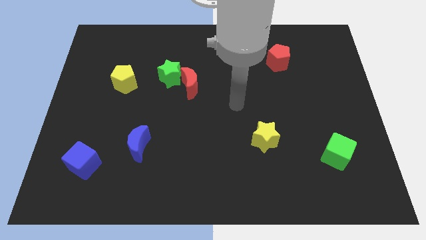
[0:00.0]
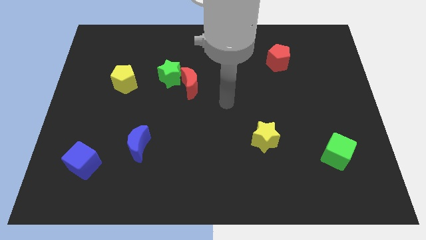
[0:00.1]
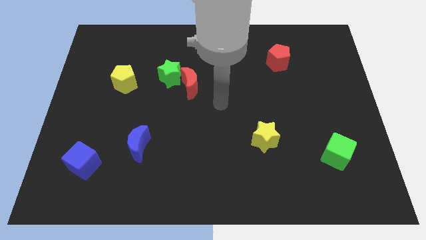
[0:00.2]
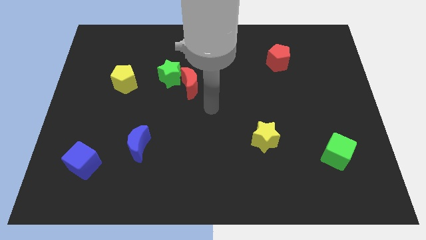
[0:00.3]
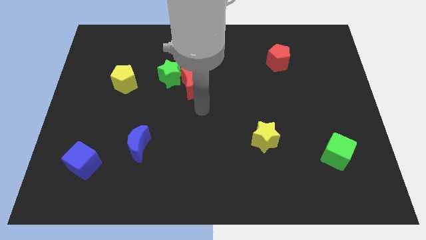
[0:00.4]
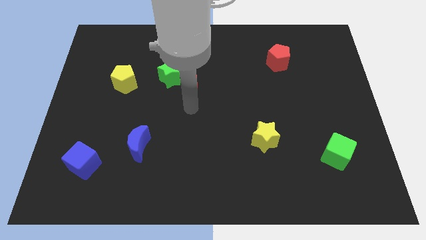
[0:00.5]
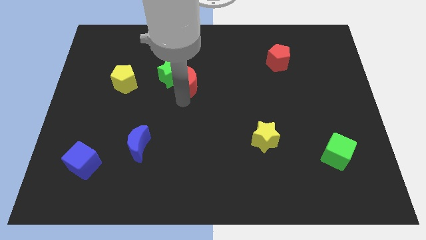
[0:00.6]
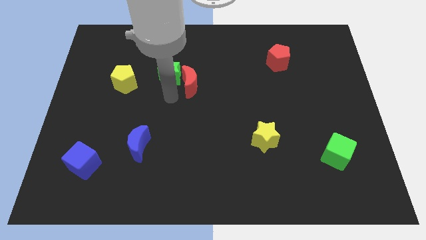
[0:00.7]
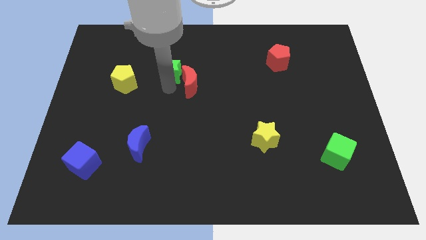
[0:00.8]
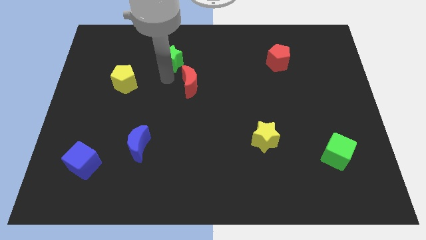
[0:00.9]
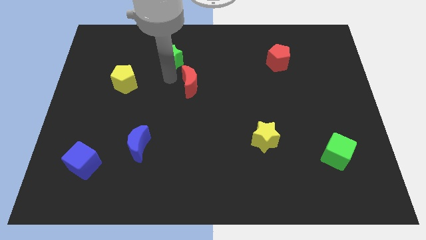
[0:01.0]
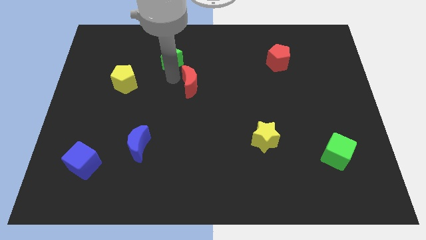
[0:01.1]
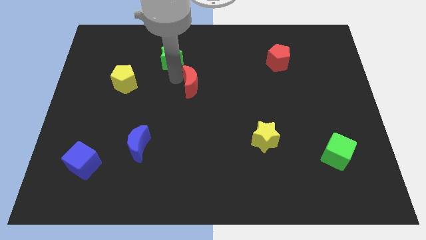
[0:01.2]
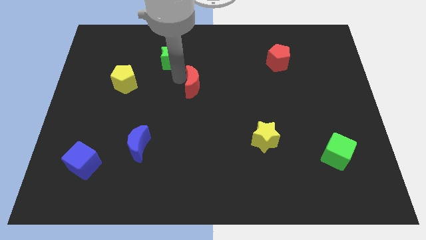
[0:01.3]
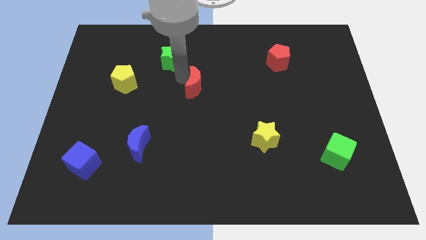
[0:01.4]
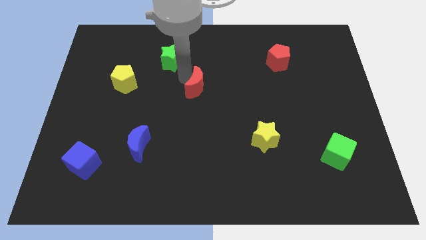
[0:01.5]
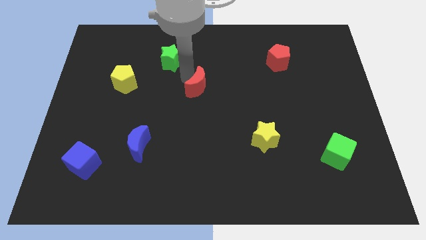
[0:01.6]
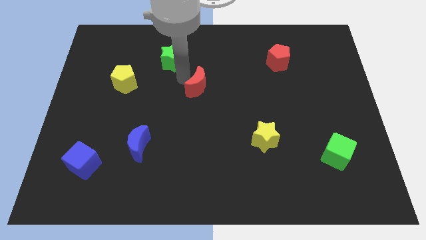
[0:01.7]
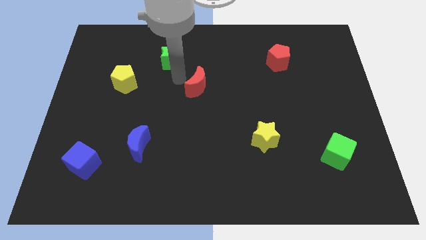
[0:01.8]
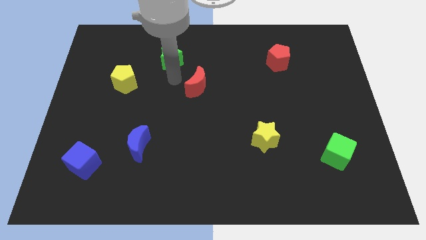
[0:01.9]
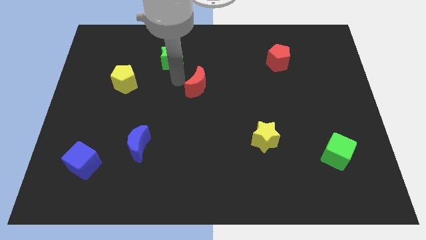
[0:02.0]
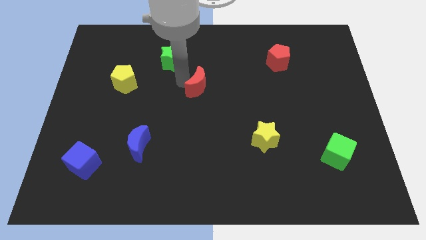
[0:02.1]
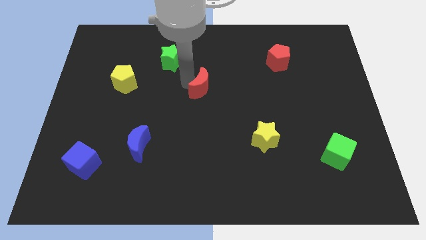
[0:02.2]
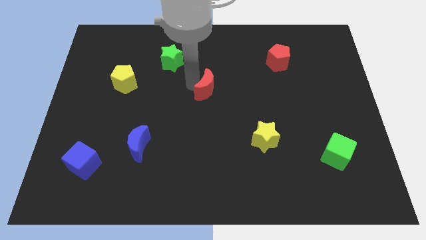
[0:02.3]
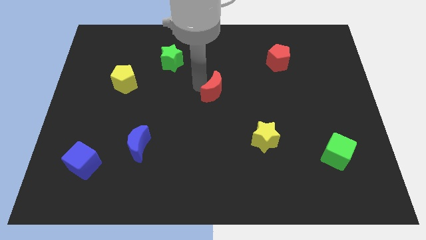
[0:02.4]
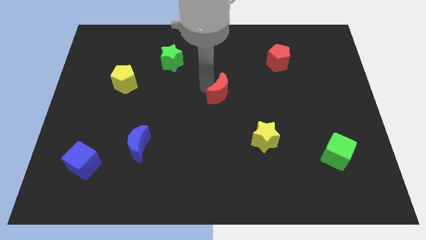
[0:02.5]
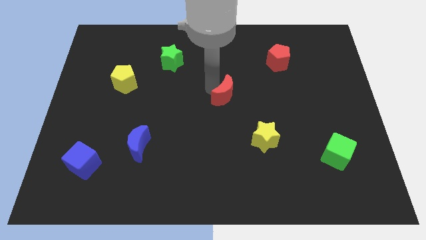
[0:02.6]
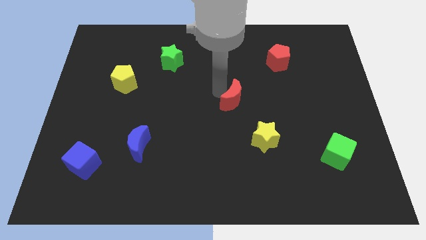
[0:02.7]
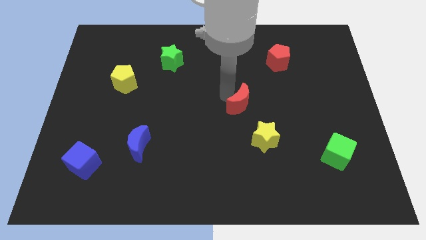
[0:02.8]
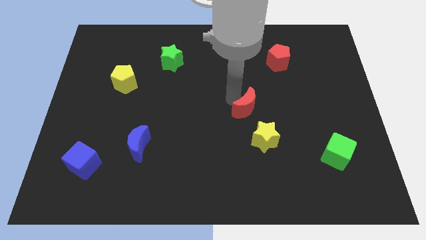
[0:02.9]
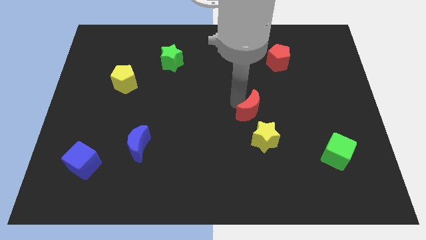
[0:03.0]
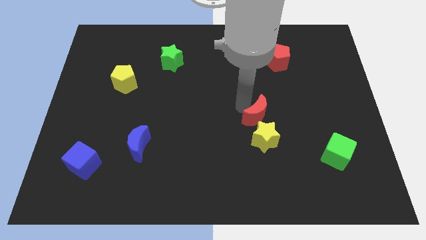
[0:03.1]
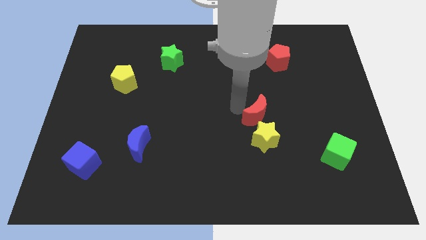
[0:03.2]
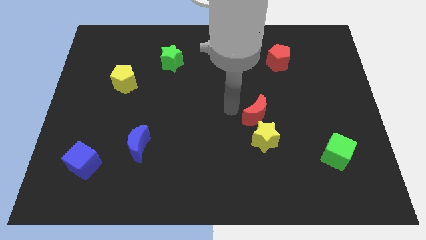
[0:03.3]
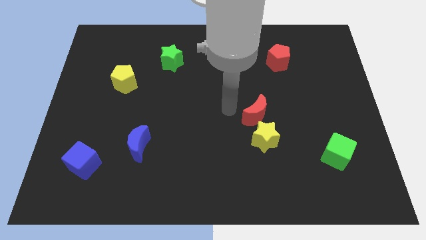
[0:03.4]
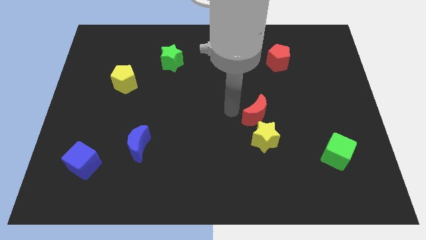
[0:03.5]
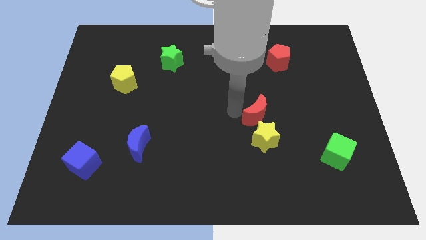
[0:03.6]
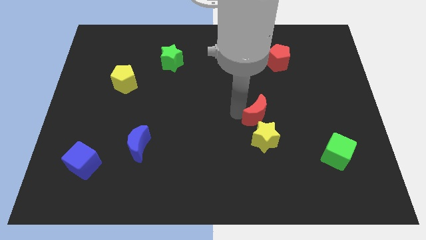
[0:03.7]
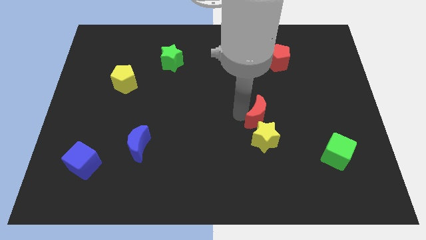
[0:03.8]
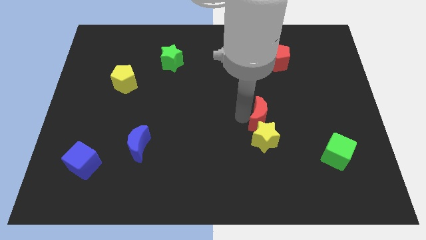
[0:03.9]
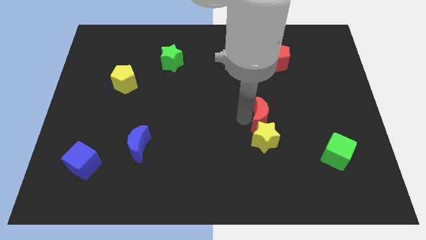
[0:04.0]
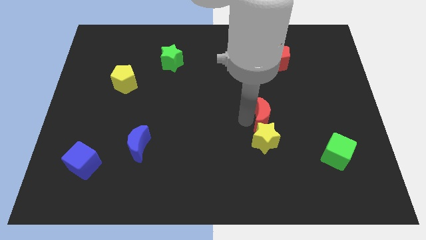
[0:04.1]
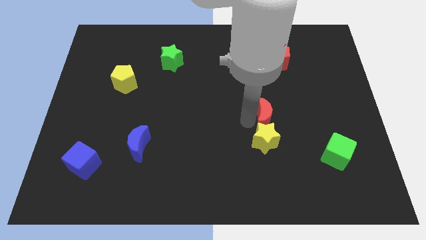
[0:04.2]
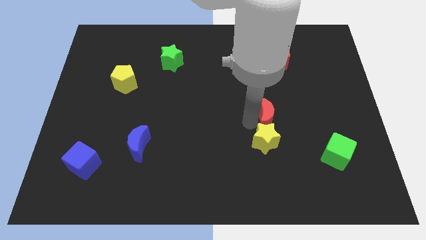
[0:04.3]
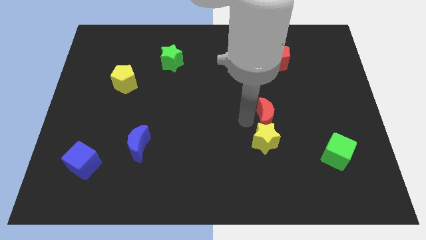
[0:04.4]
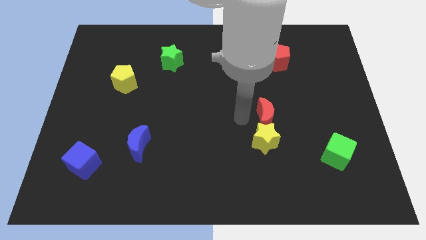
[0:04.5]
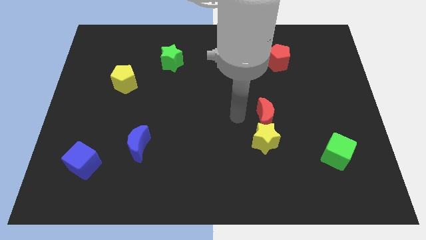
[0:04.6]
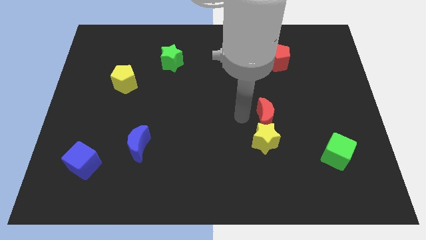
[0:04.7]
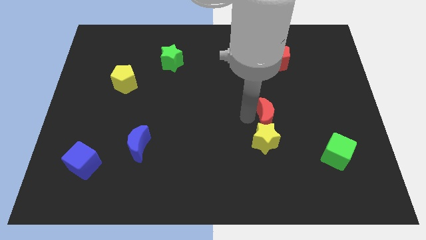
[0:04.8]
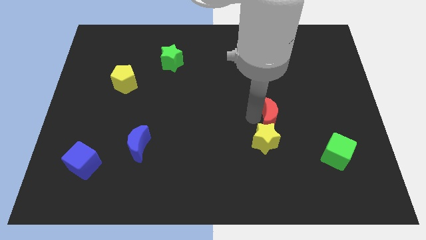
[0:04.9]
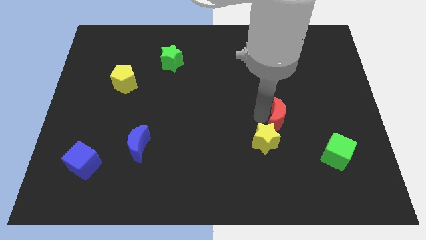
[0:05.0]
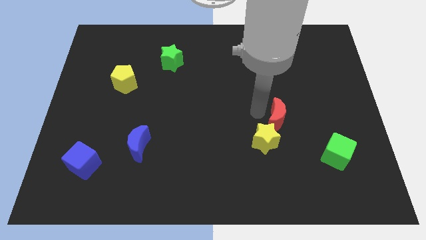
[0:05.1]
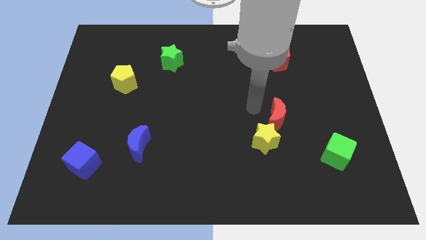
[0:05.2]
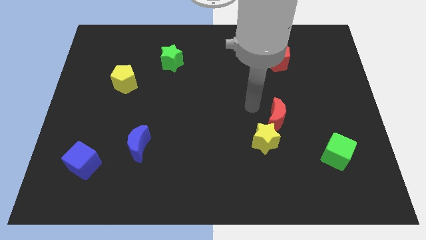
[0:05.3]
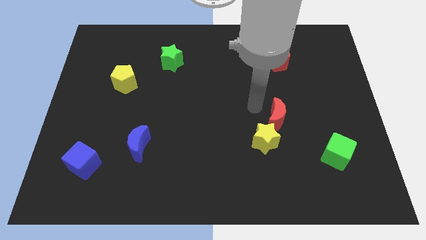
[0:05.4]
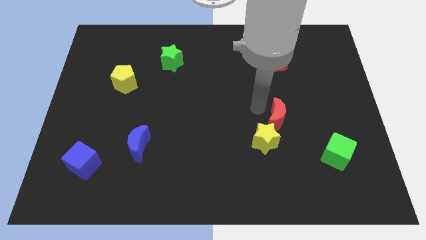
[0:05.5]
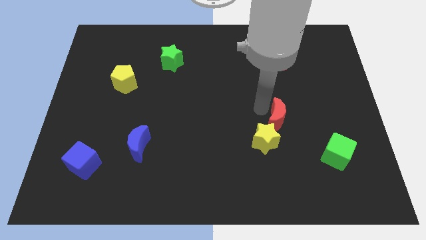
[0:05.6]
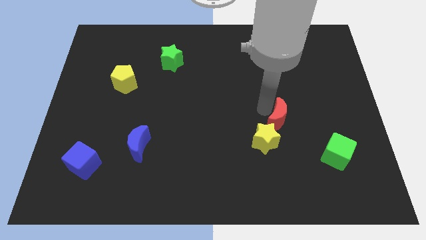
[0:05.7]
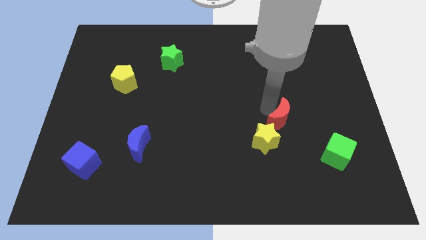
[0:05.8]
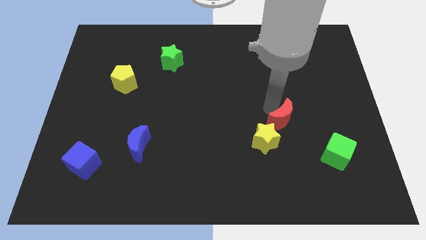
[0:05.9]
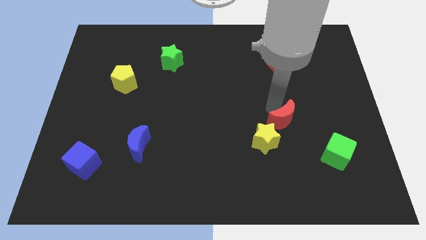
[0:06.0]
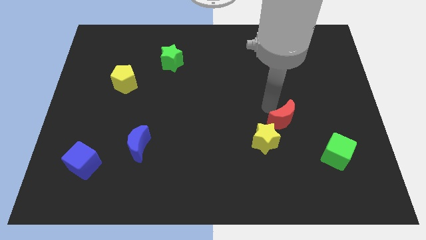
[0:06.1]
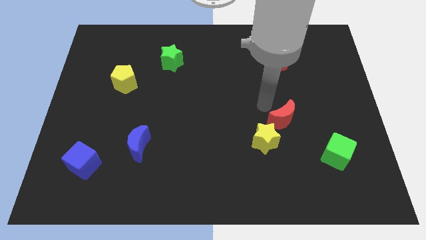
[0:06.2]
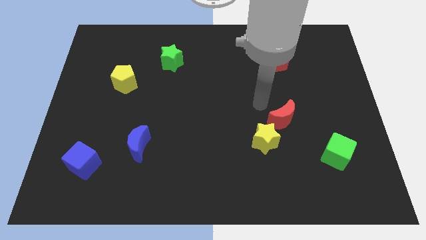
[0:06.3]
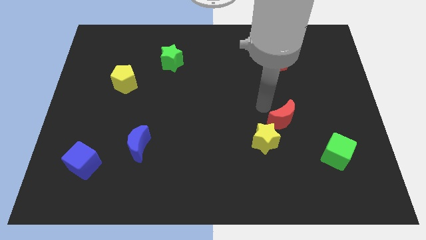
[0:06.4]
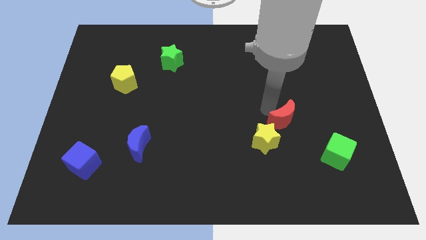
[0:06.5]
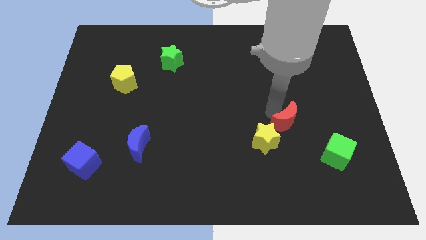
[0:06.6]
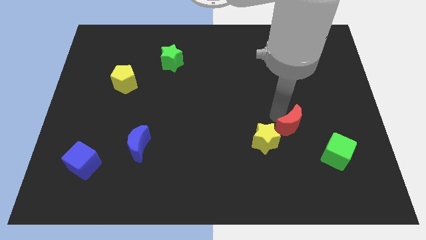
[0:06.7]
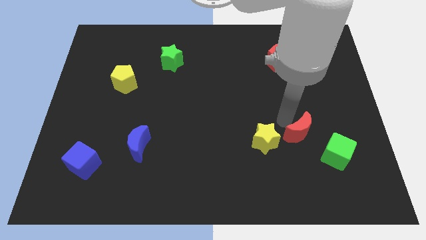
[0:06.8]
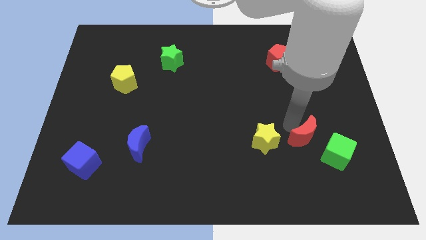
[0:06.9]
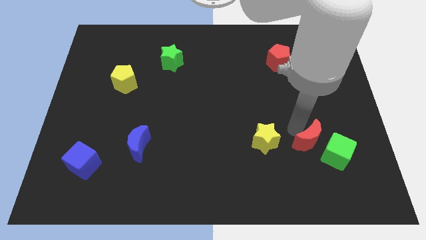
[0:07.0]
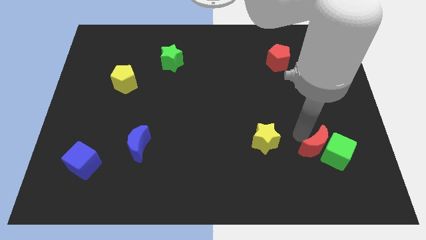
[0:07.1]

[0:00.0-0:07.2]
put the red moon to the green cube

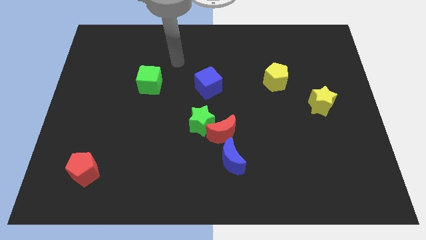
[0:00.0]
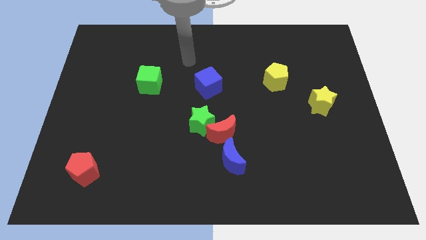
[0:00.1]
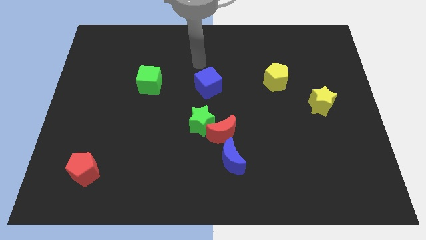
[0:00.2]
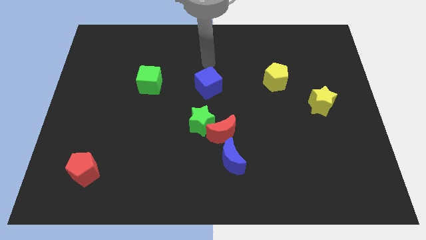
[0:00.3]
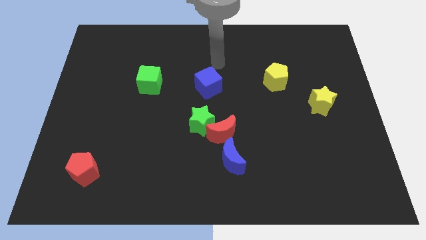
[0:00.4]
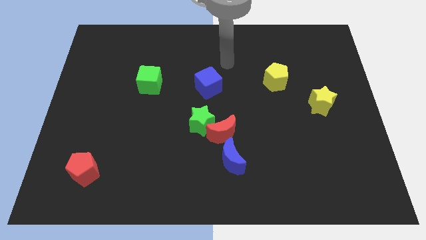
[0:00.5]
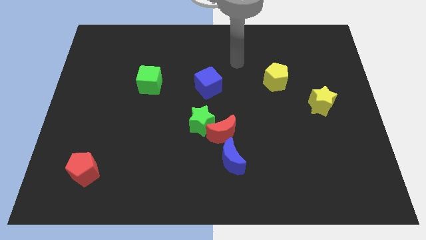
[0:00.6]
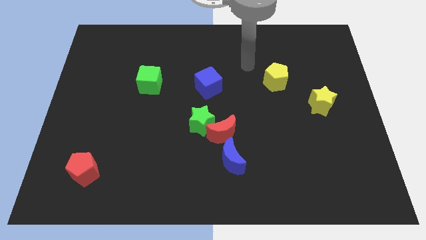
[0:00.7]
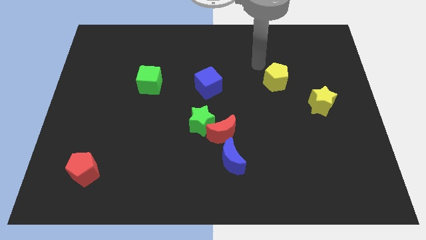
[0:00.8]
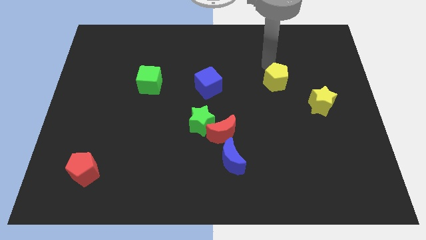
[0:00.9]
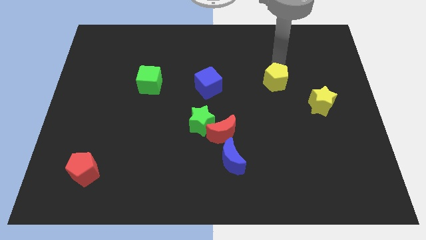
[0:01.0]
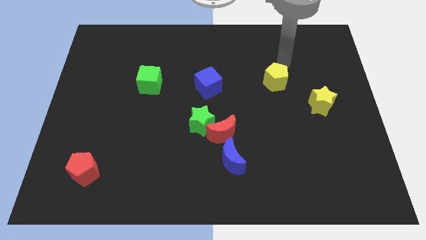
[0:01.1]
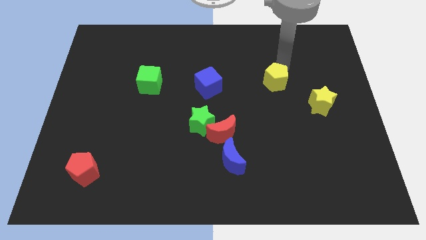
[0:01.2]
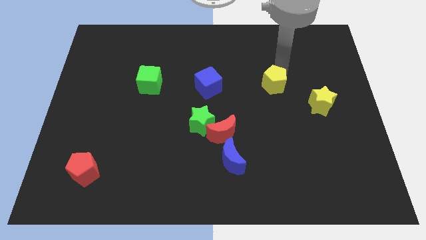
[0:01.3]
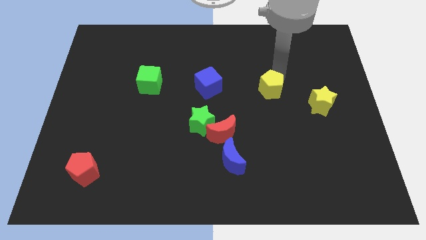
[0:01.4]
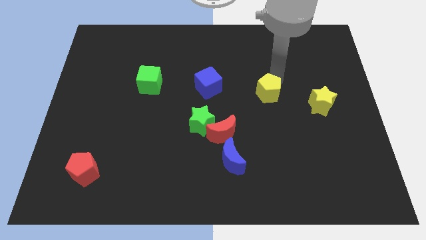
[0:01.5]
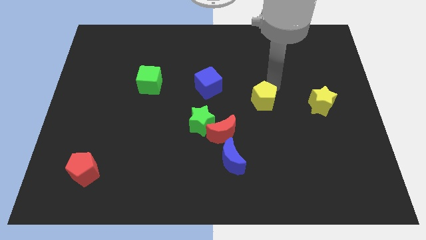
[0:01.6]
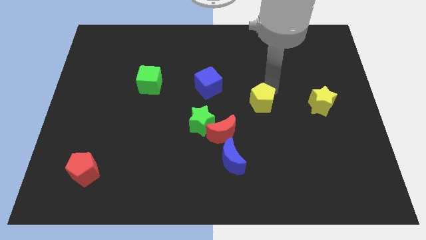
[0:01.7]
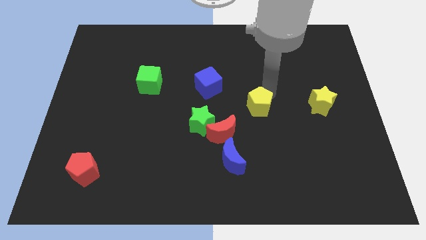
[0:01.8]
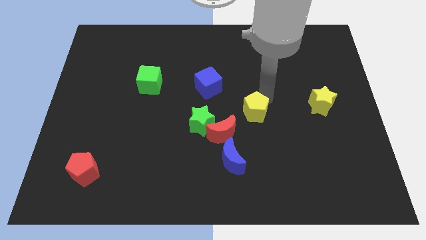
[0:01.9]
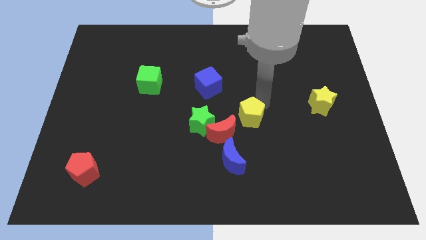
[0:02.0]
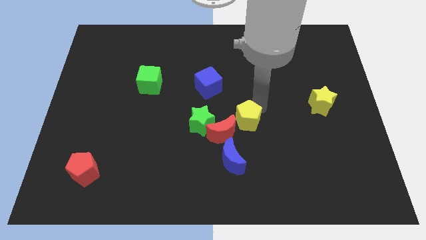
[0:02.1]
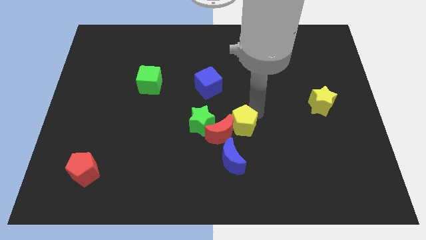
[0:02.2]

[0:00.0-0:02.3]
push the yellow pentagon towards the red moon
